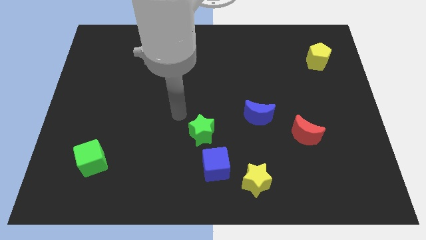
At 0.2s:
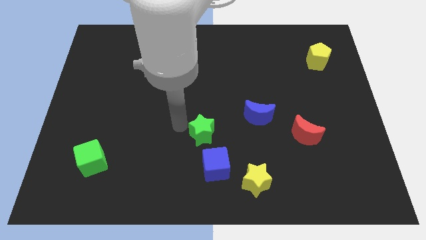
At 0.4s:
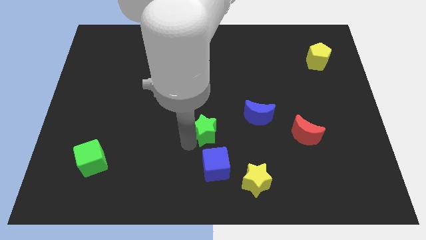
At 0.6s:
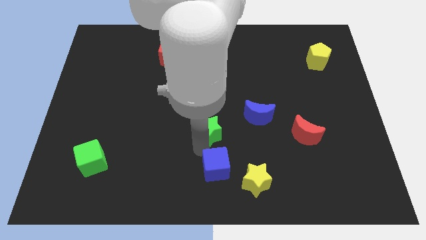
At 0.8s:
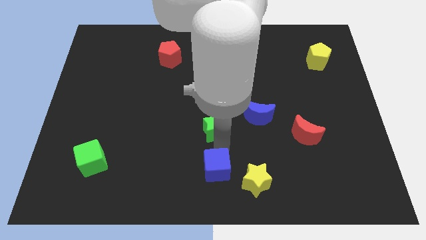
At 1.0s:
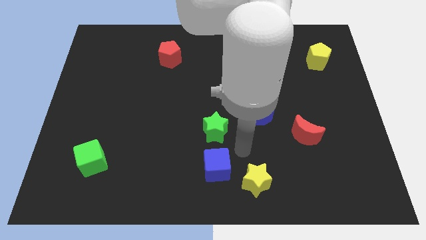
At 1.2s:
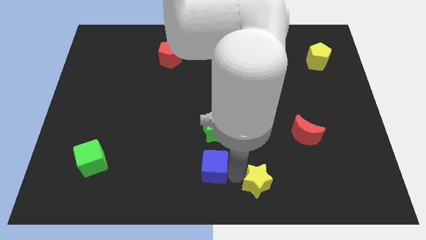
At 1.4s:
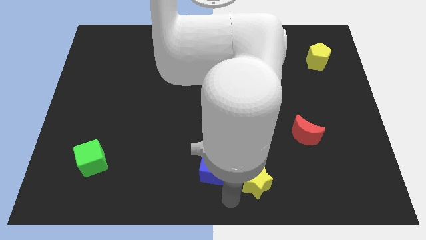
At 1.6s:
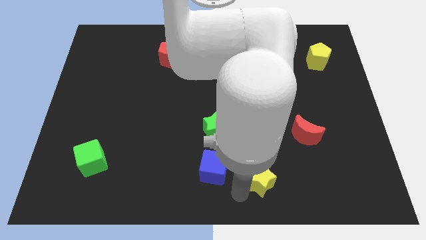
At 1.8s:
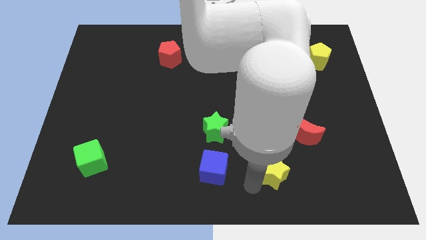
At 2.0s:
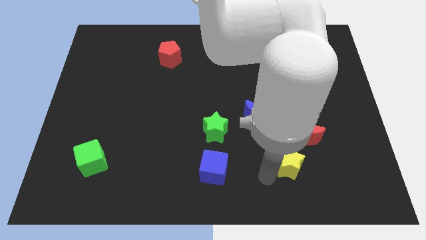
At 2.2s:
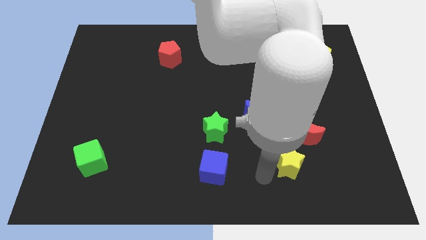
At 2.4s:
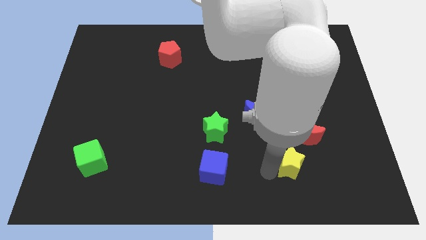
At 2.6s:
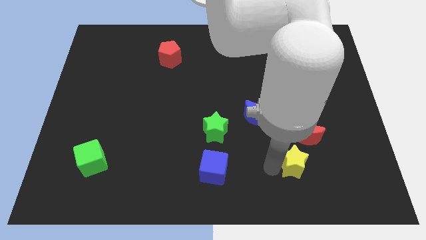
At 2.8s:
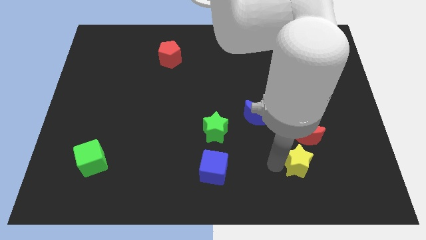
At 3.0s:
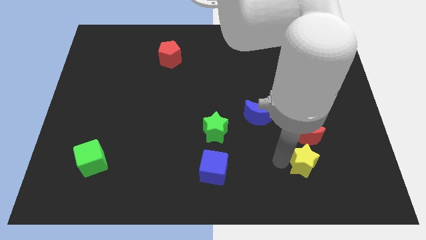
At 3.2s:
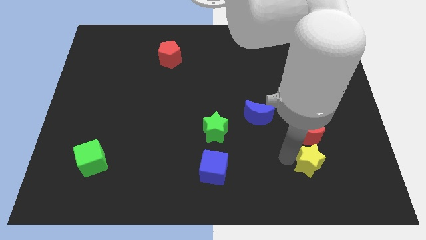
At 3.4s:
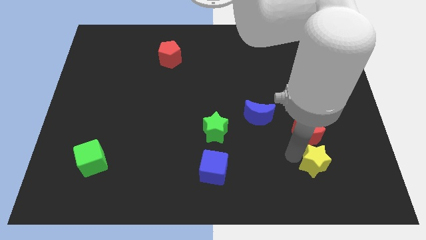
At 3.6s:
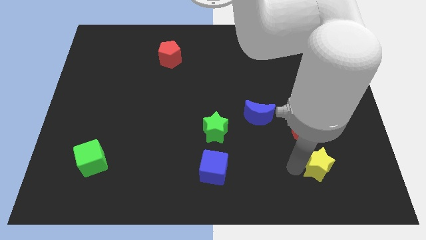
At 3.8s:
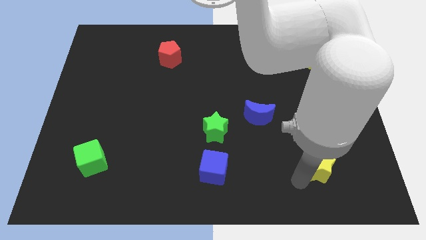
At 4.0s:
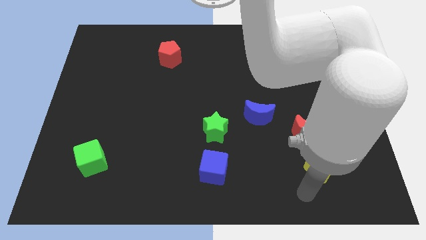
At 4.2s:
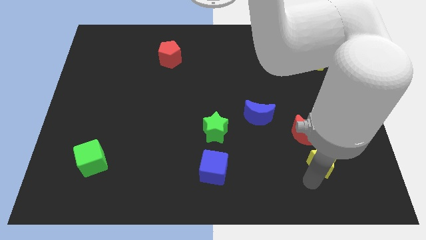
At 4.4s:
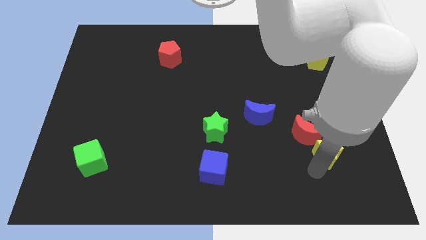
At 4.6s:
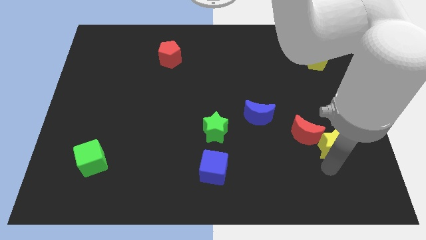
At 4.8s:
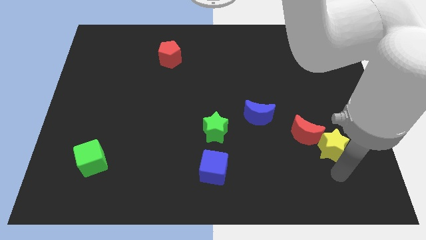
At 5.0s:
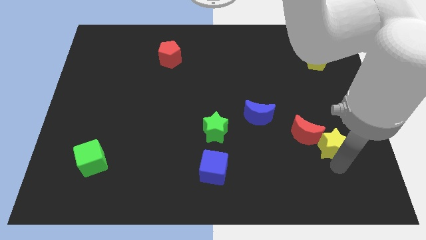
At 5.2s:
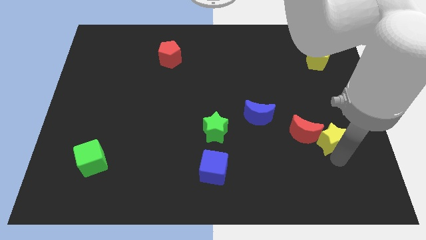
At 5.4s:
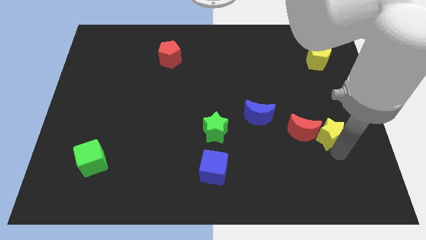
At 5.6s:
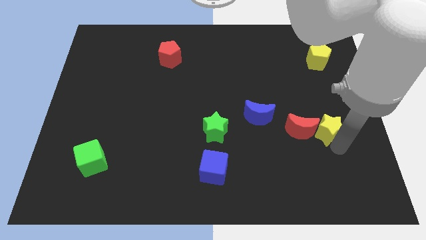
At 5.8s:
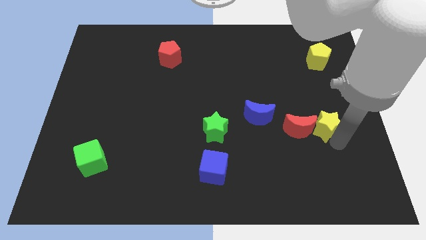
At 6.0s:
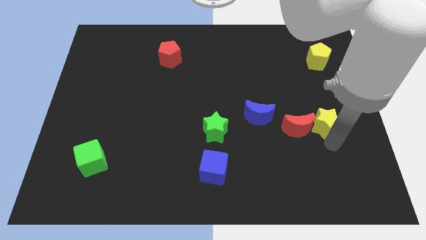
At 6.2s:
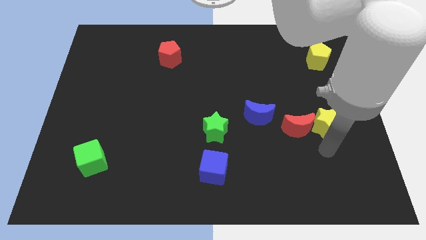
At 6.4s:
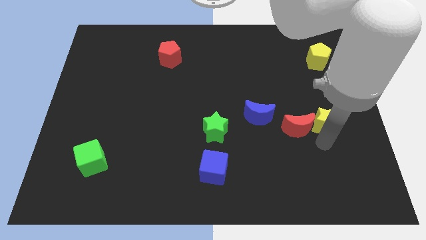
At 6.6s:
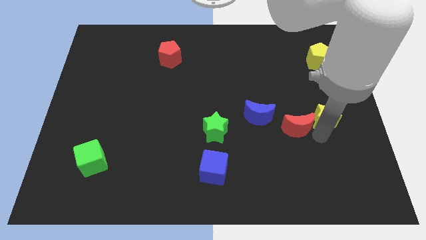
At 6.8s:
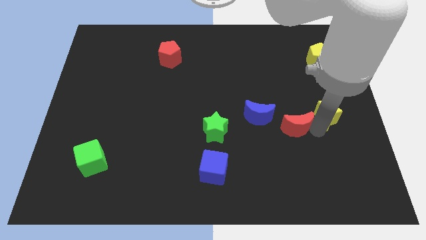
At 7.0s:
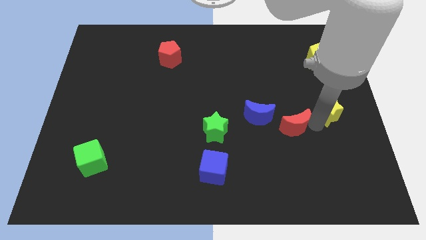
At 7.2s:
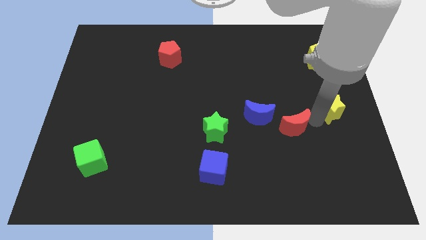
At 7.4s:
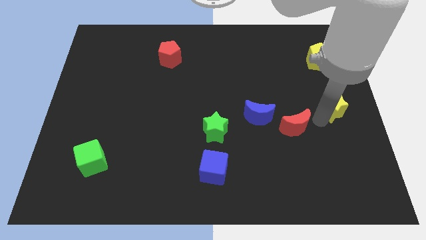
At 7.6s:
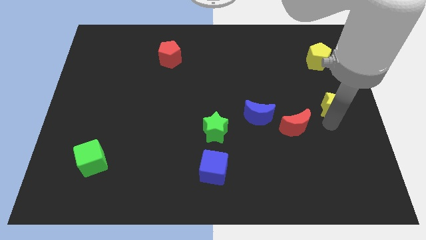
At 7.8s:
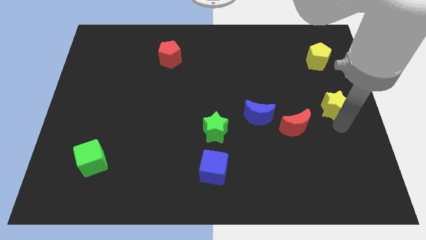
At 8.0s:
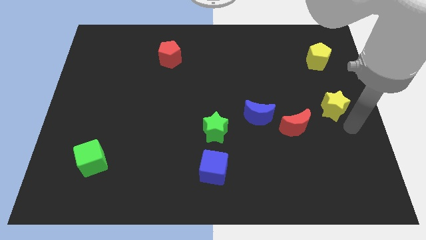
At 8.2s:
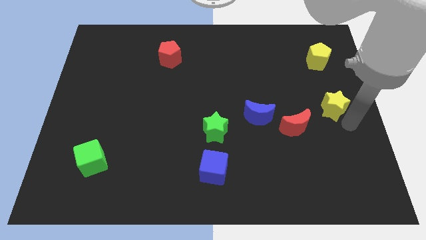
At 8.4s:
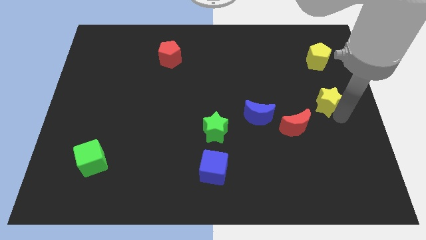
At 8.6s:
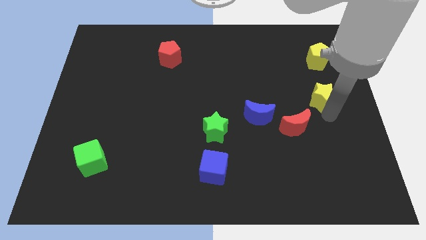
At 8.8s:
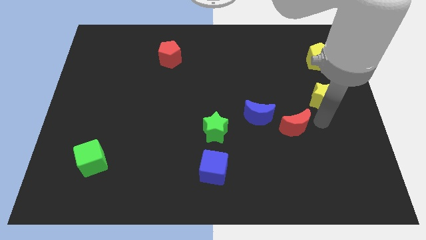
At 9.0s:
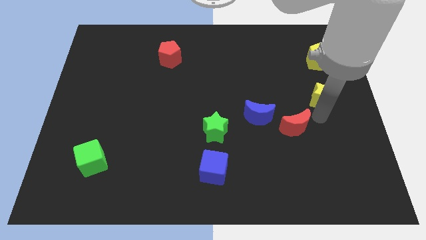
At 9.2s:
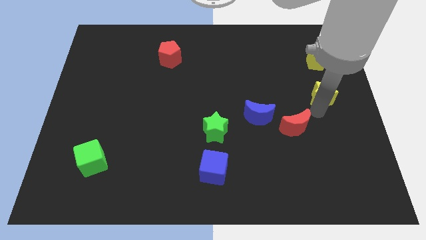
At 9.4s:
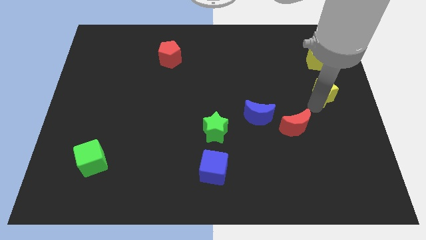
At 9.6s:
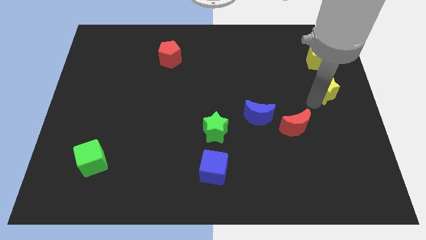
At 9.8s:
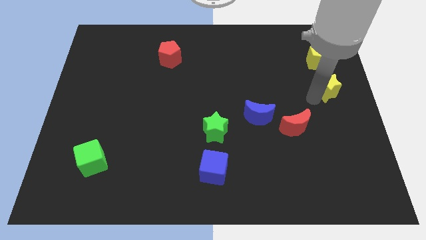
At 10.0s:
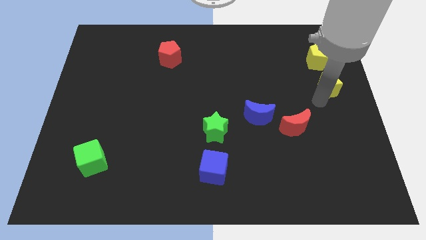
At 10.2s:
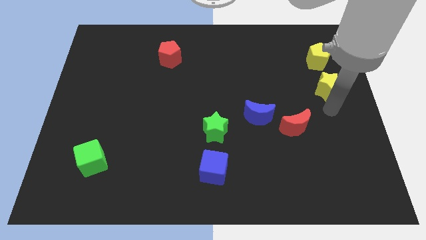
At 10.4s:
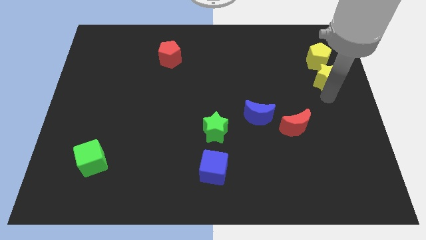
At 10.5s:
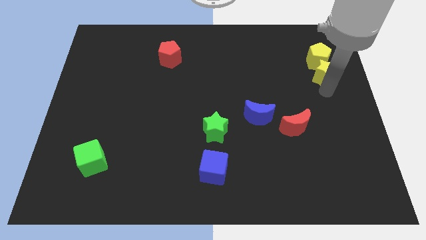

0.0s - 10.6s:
move the yellow star to the yellow pentagon

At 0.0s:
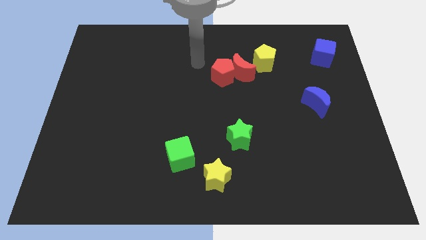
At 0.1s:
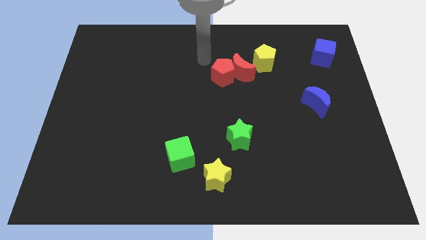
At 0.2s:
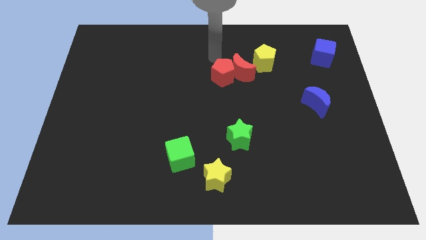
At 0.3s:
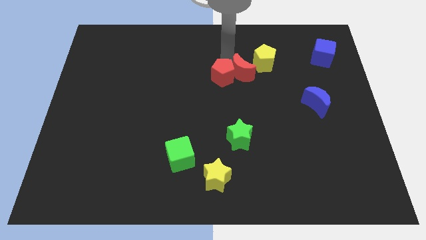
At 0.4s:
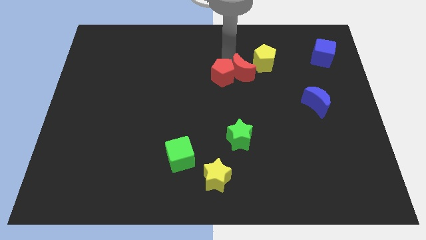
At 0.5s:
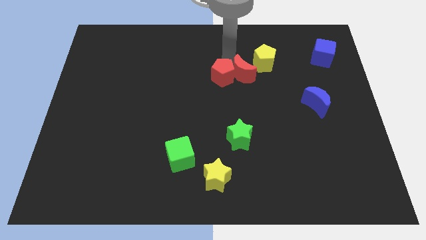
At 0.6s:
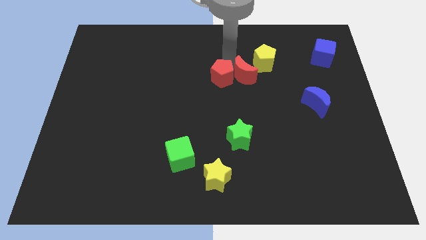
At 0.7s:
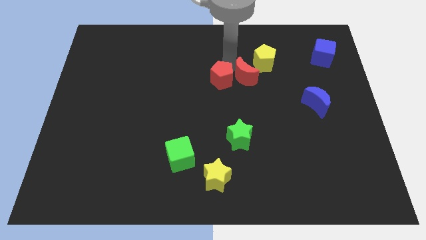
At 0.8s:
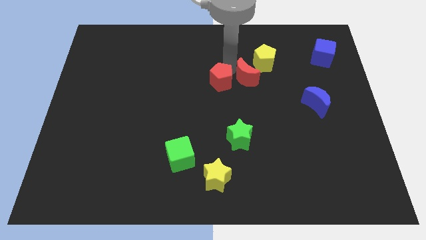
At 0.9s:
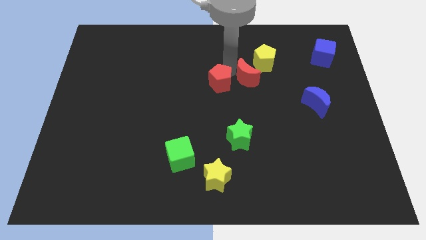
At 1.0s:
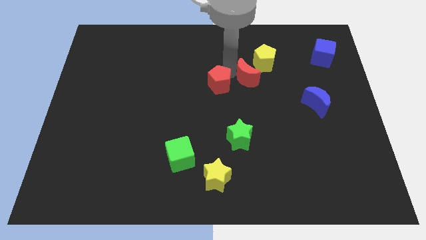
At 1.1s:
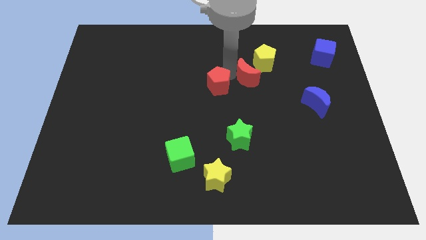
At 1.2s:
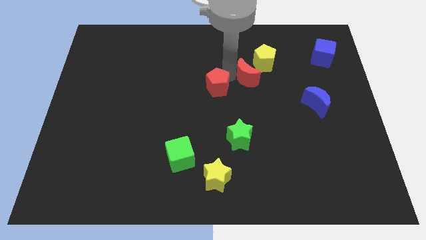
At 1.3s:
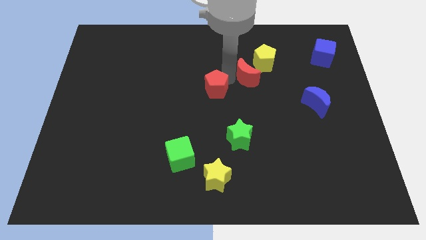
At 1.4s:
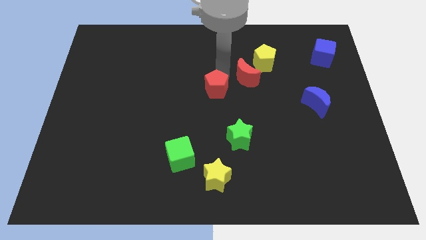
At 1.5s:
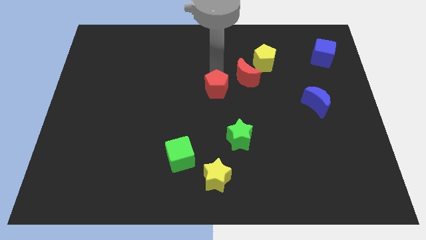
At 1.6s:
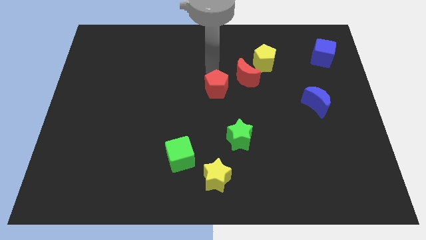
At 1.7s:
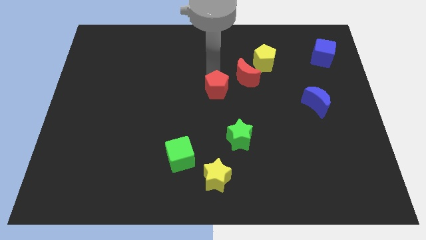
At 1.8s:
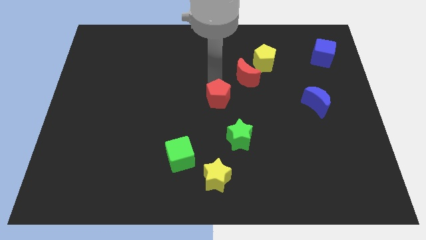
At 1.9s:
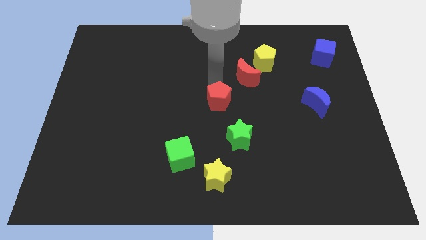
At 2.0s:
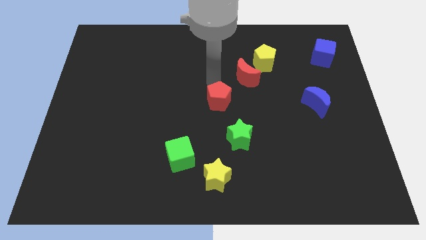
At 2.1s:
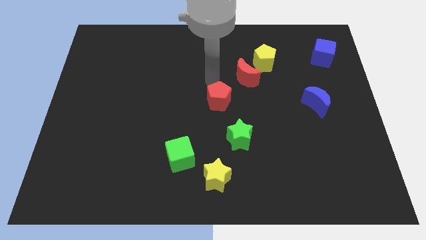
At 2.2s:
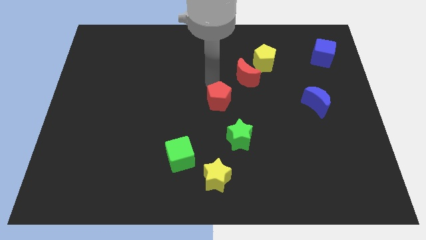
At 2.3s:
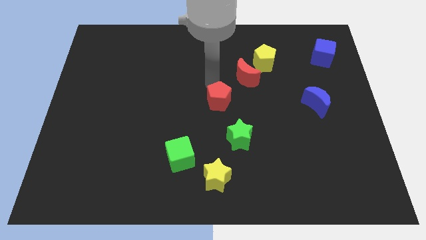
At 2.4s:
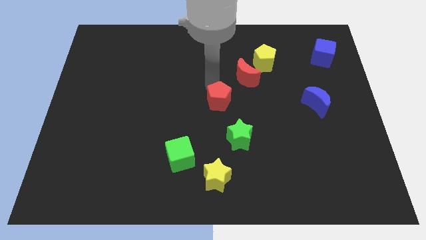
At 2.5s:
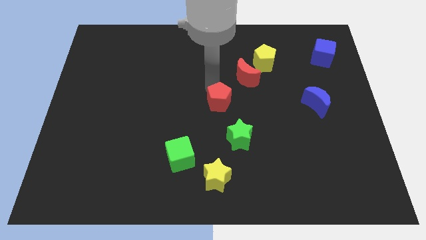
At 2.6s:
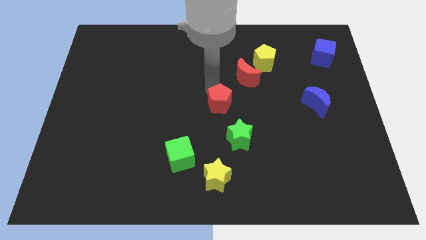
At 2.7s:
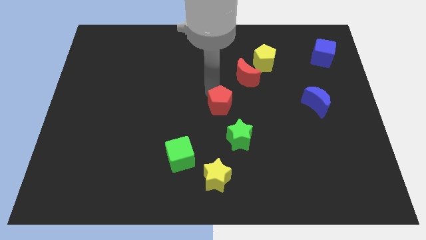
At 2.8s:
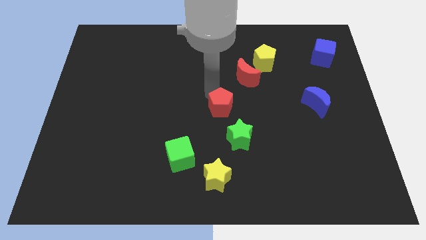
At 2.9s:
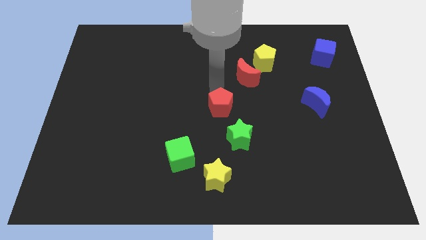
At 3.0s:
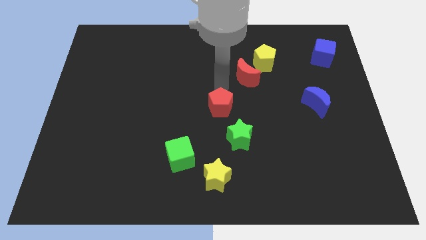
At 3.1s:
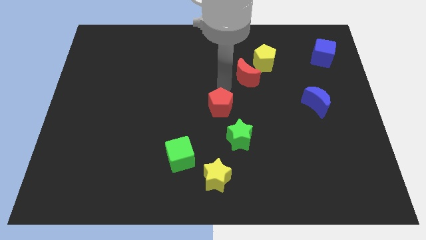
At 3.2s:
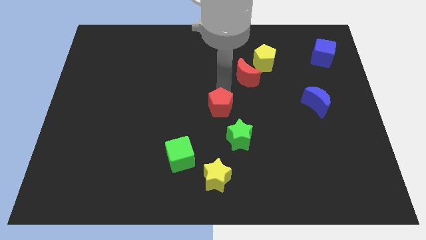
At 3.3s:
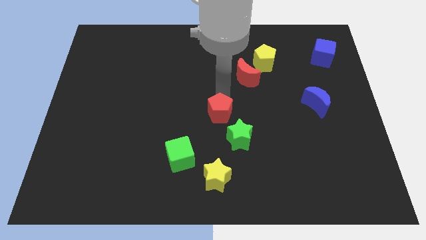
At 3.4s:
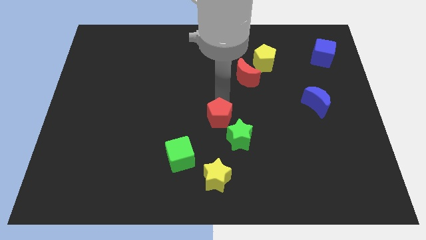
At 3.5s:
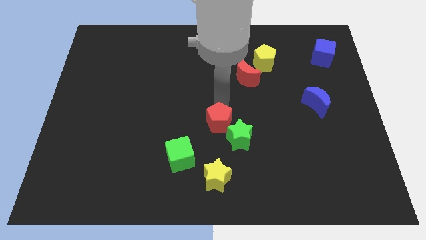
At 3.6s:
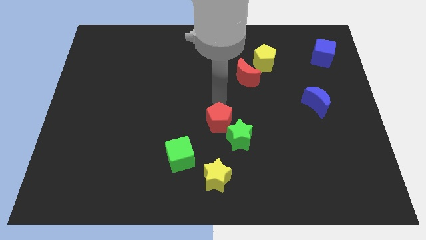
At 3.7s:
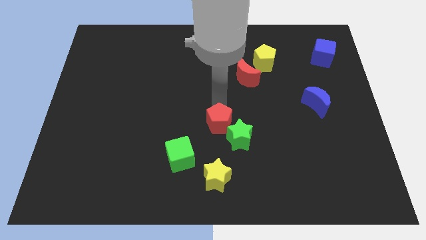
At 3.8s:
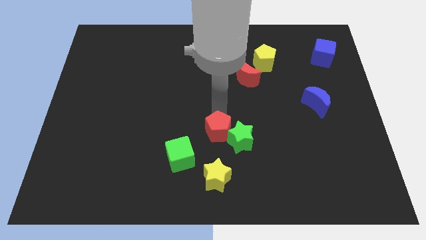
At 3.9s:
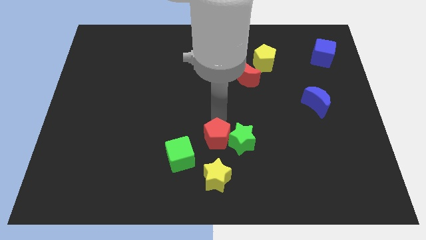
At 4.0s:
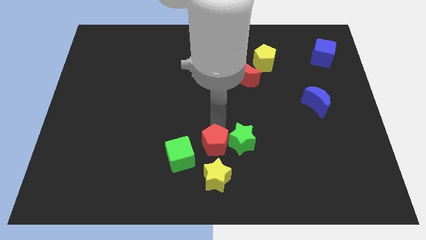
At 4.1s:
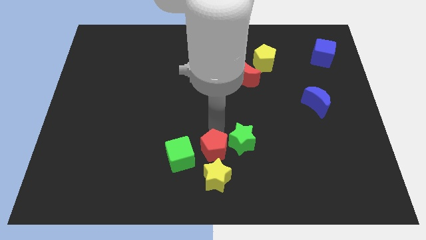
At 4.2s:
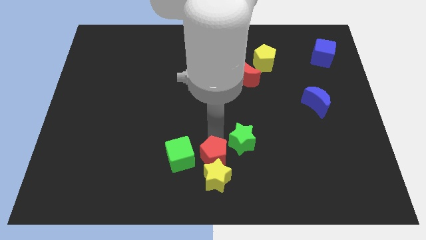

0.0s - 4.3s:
slide the red pentagon towards the yellow star
